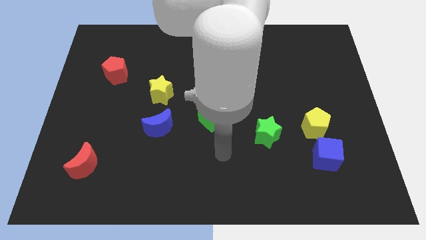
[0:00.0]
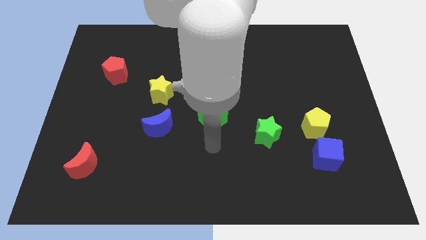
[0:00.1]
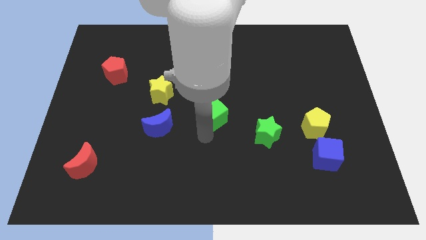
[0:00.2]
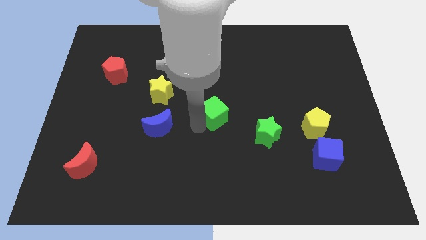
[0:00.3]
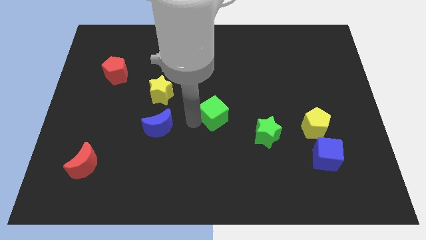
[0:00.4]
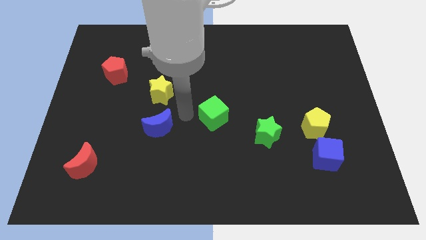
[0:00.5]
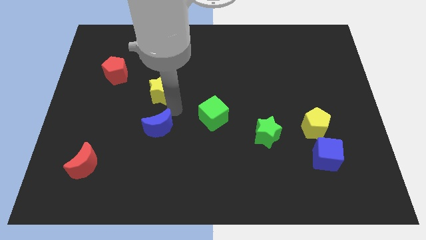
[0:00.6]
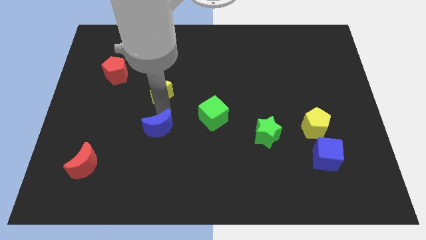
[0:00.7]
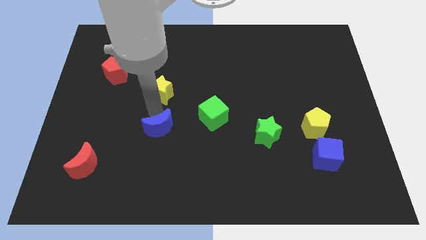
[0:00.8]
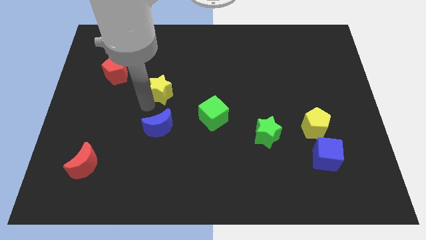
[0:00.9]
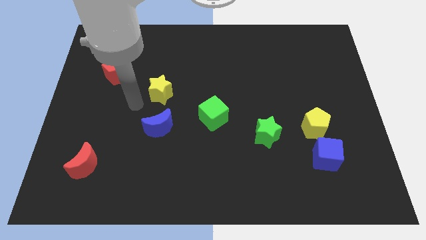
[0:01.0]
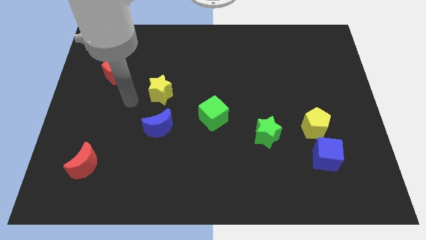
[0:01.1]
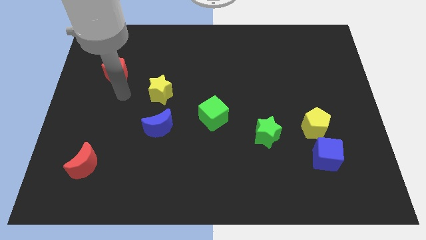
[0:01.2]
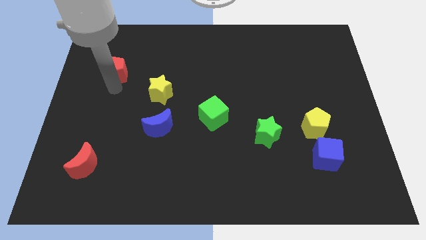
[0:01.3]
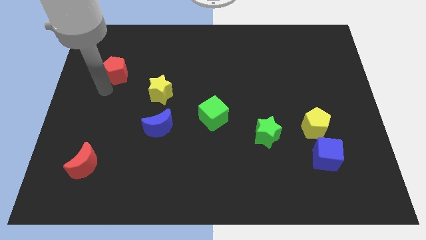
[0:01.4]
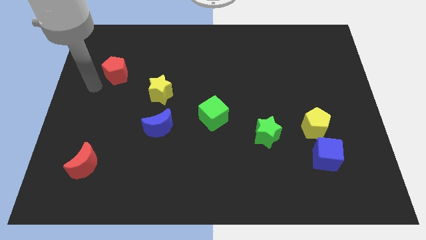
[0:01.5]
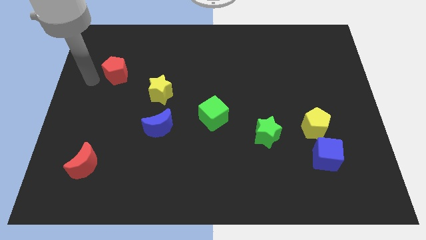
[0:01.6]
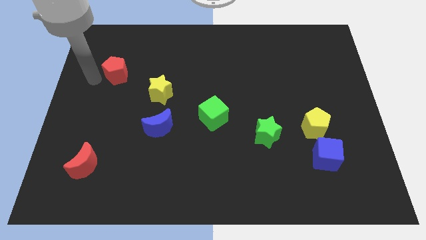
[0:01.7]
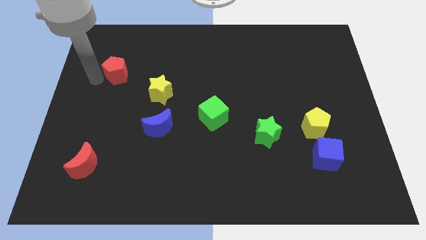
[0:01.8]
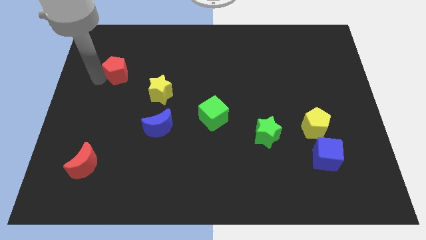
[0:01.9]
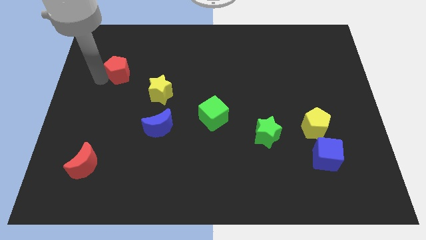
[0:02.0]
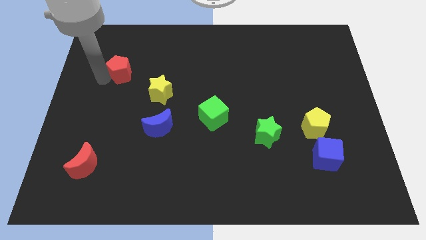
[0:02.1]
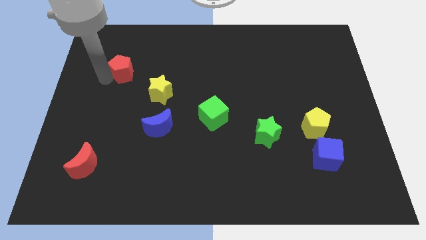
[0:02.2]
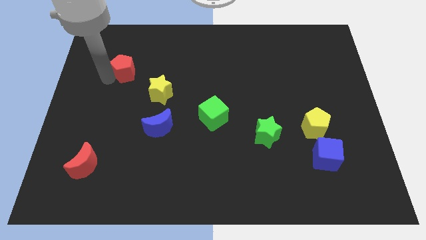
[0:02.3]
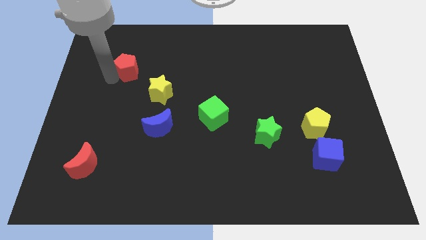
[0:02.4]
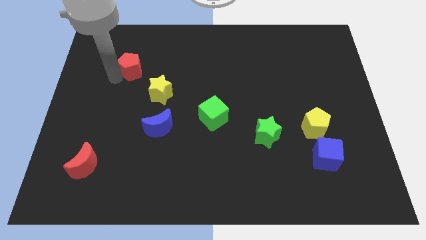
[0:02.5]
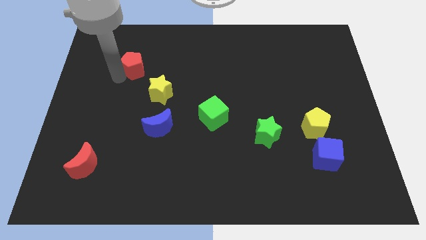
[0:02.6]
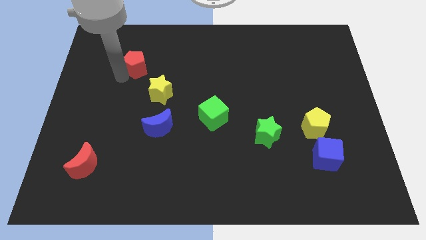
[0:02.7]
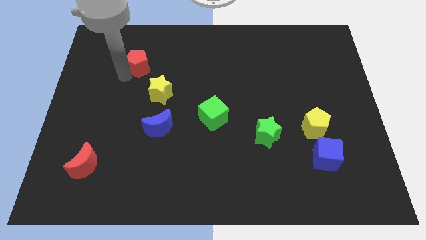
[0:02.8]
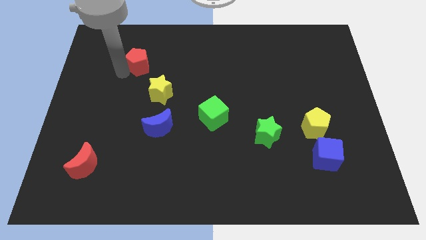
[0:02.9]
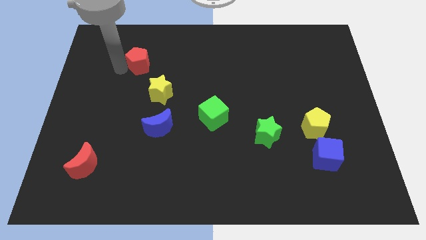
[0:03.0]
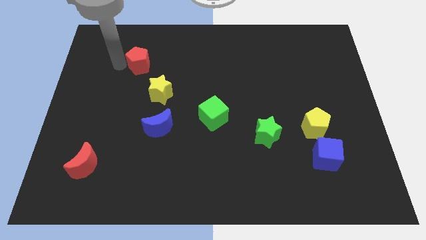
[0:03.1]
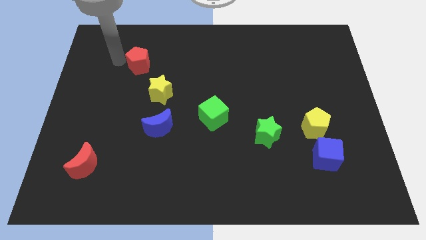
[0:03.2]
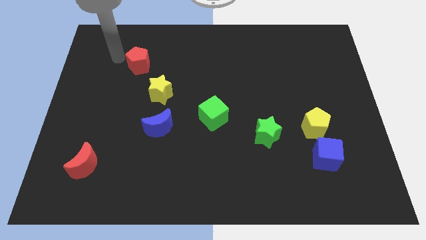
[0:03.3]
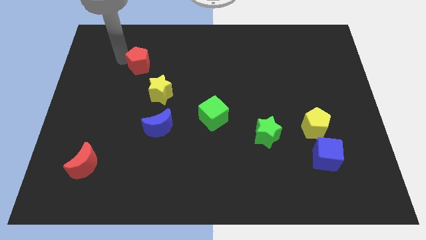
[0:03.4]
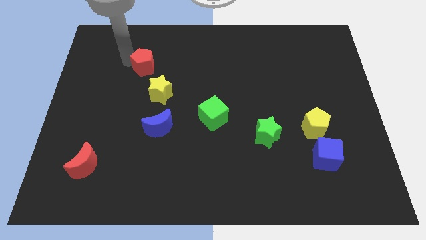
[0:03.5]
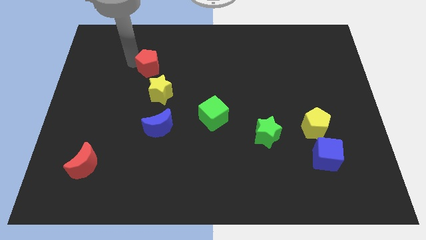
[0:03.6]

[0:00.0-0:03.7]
move the red pentagon to the right slightly

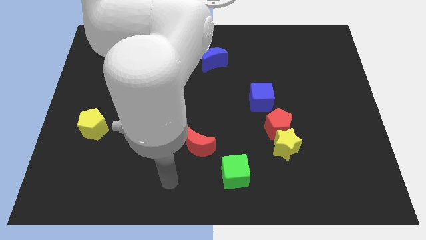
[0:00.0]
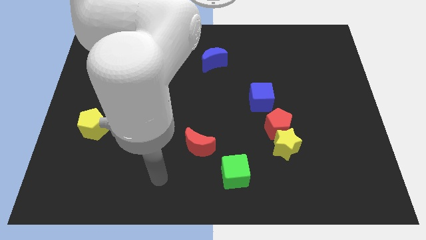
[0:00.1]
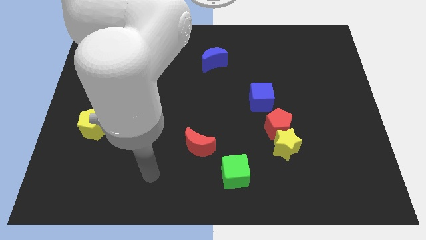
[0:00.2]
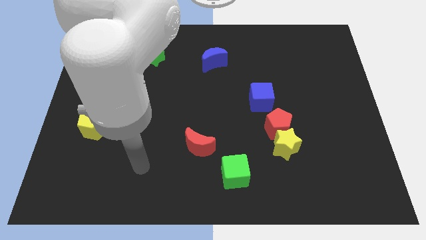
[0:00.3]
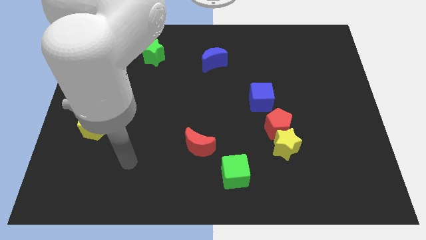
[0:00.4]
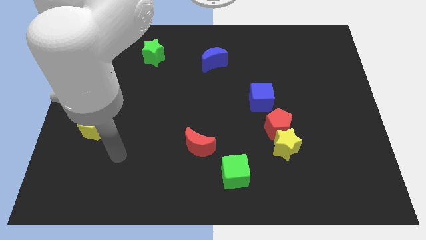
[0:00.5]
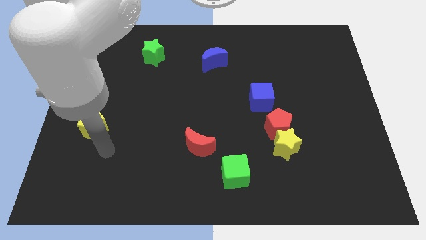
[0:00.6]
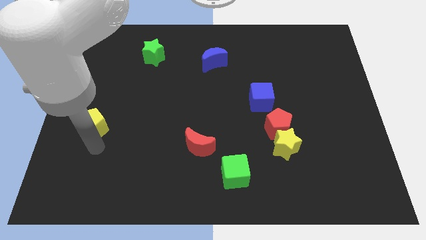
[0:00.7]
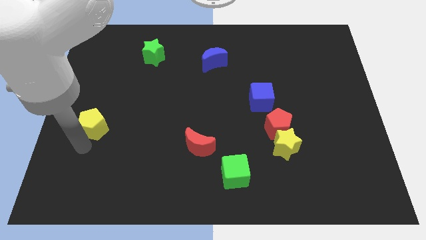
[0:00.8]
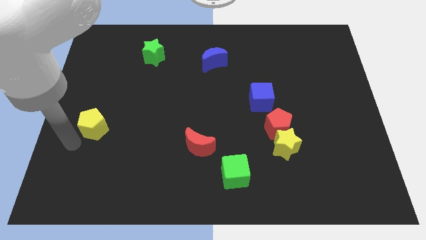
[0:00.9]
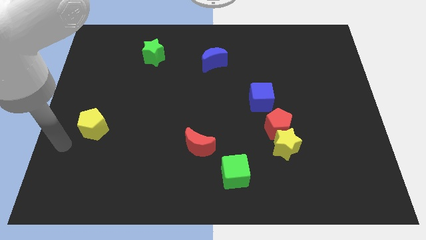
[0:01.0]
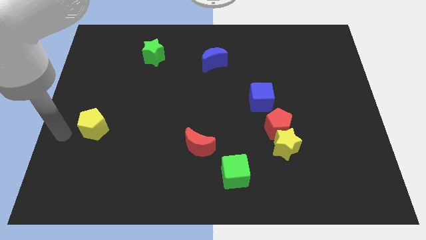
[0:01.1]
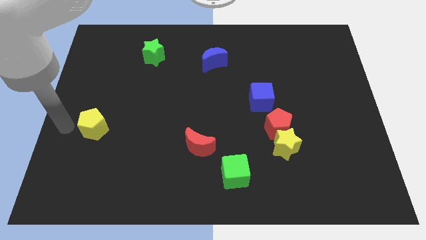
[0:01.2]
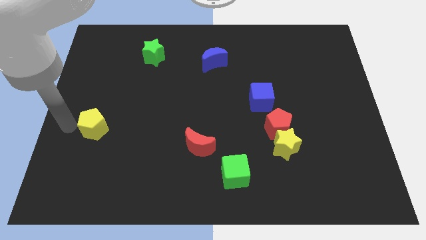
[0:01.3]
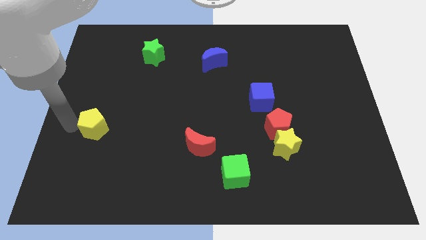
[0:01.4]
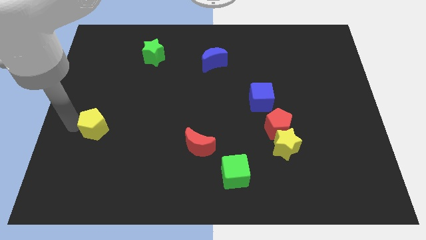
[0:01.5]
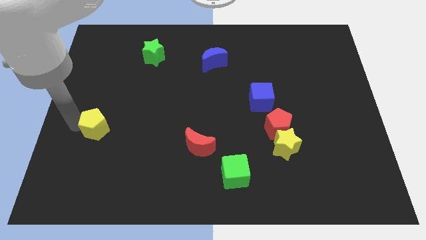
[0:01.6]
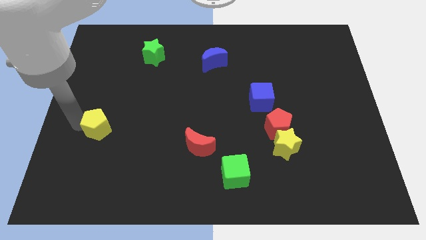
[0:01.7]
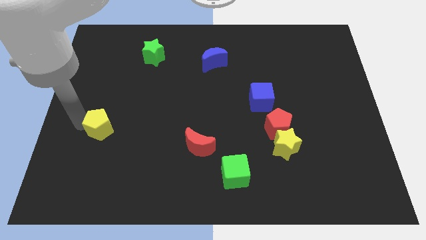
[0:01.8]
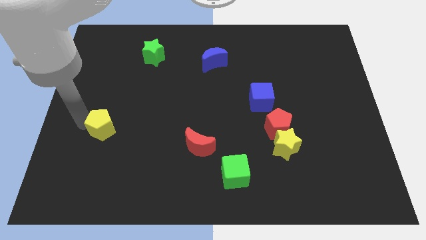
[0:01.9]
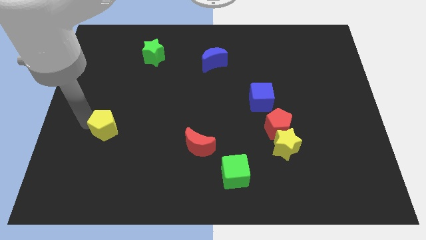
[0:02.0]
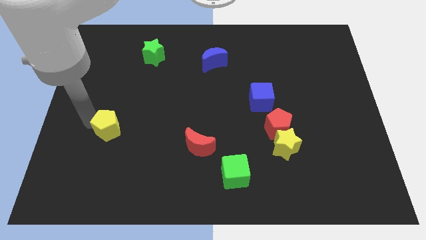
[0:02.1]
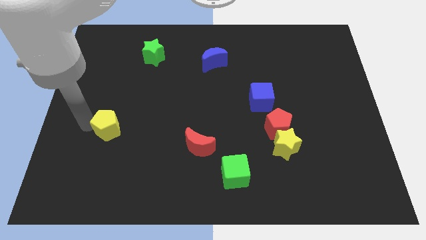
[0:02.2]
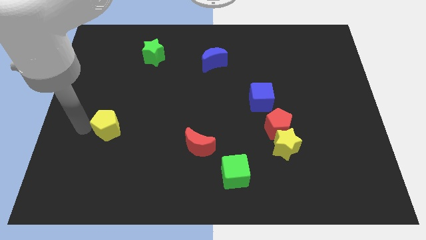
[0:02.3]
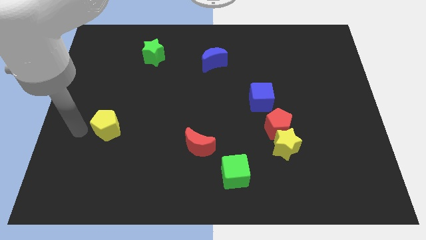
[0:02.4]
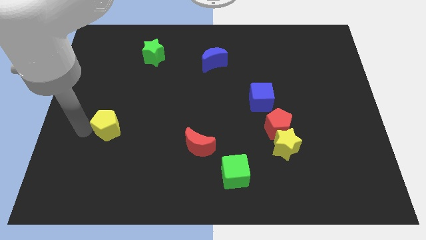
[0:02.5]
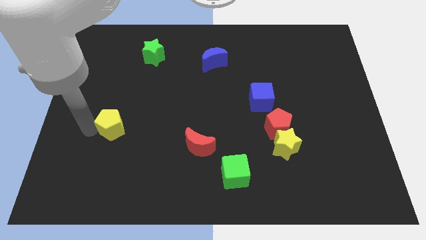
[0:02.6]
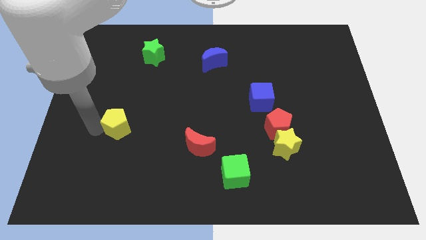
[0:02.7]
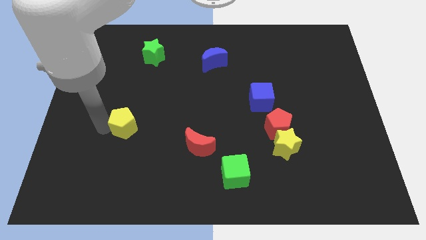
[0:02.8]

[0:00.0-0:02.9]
slightly push the yellow pentagon right

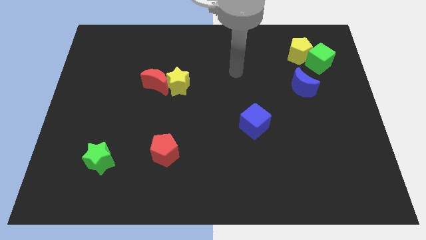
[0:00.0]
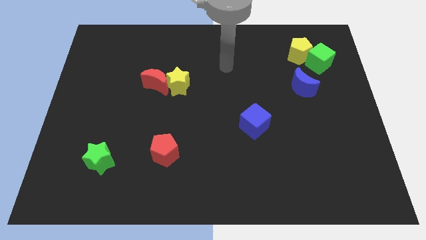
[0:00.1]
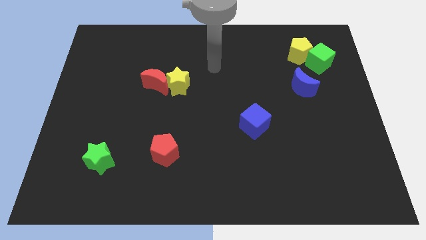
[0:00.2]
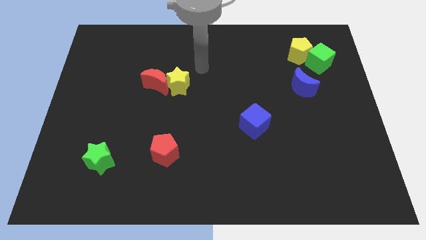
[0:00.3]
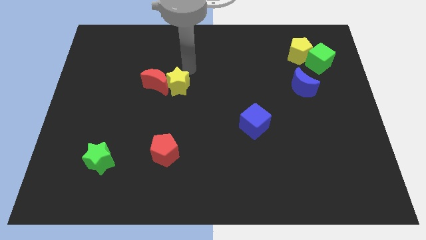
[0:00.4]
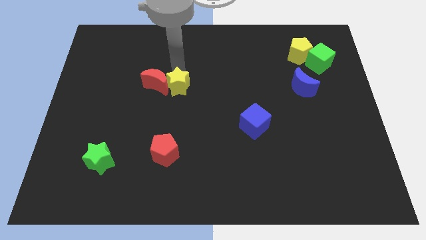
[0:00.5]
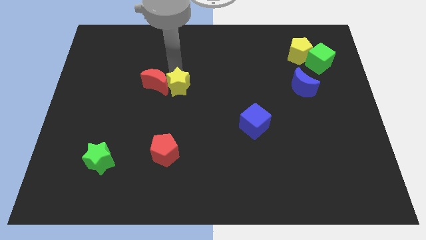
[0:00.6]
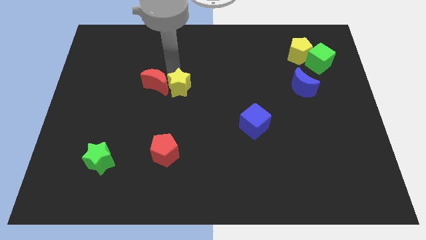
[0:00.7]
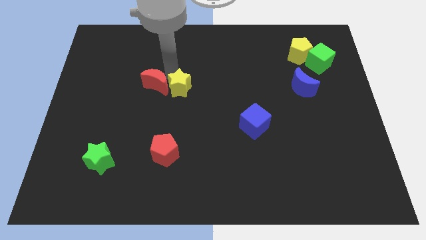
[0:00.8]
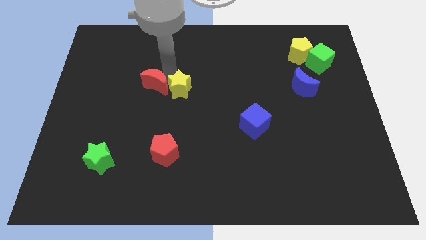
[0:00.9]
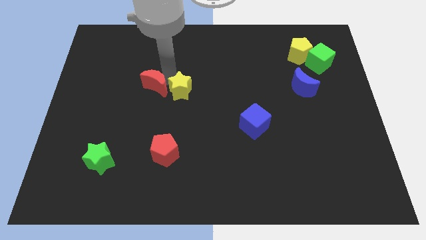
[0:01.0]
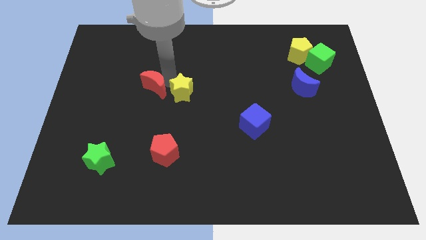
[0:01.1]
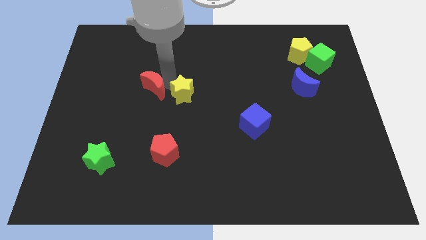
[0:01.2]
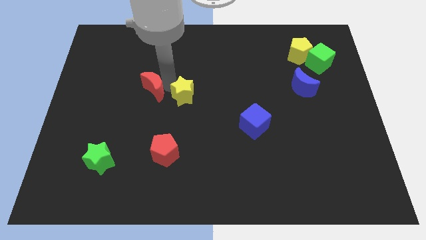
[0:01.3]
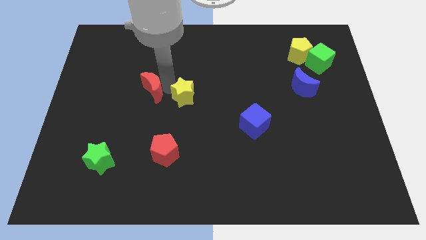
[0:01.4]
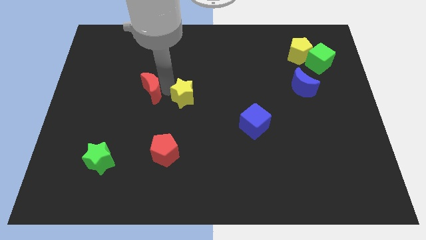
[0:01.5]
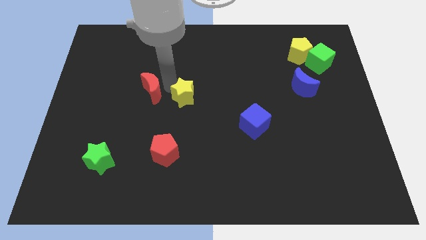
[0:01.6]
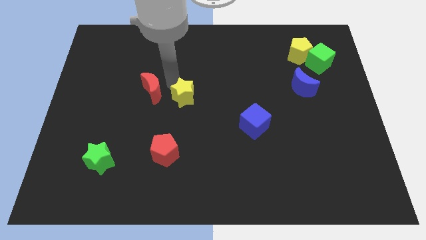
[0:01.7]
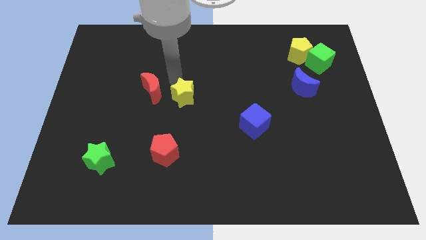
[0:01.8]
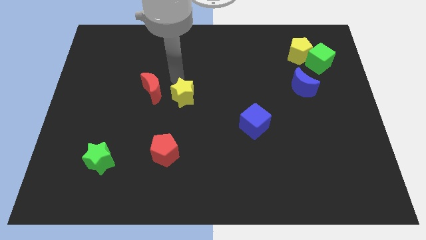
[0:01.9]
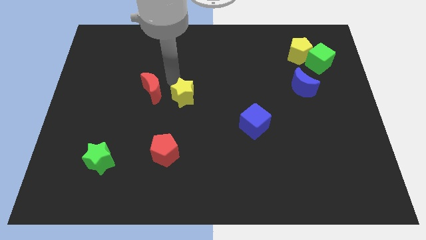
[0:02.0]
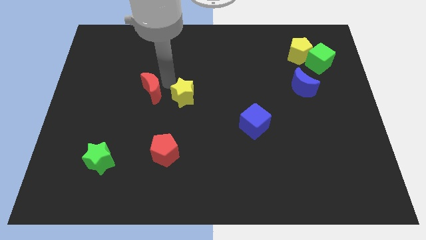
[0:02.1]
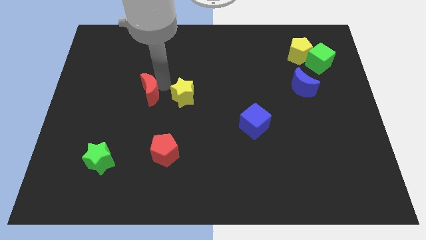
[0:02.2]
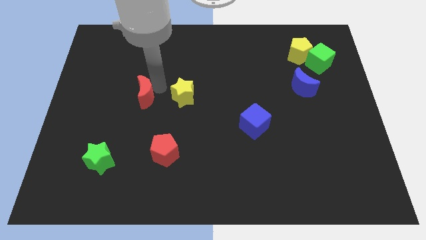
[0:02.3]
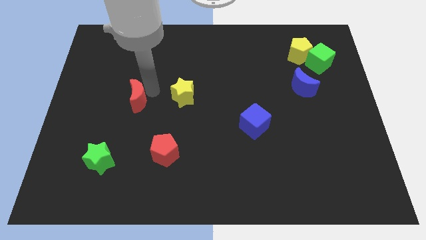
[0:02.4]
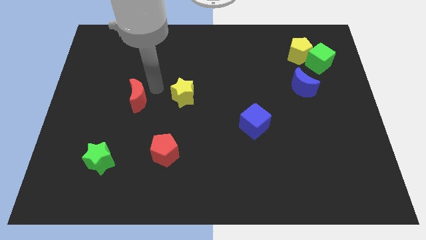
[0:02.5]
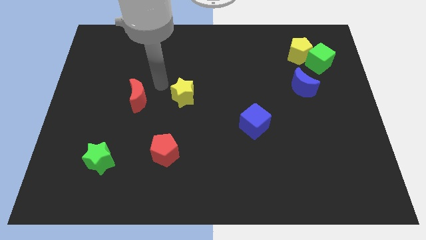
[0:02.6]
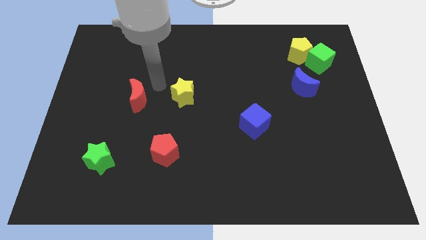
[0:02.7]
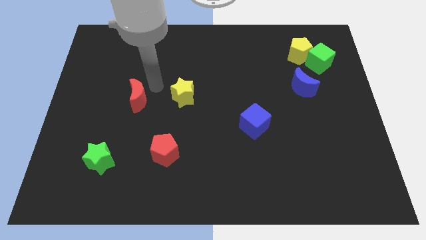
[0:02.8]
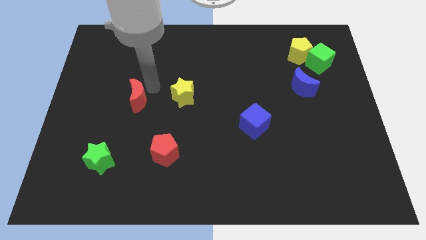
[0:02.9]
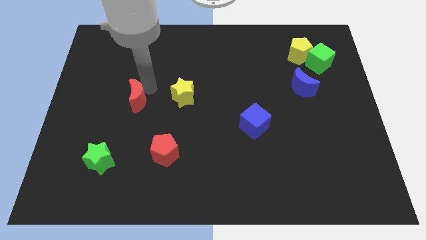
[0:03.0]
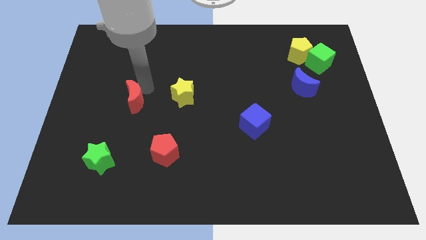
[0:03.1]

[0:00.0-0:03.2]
slide the red moon downwards and left a little
